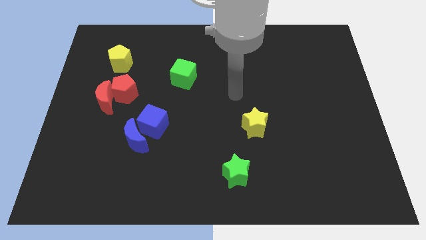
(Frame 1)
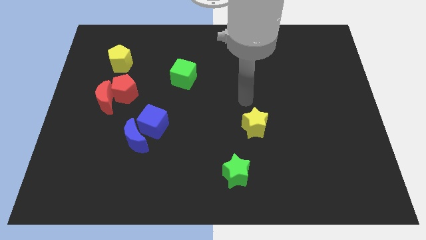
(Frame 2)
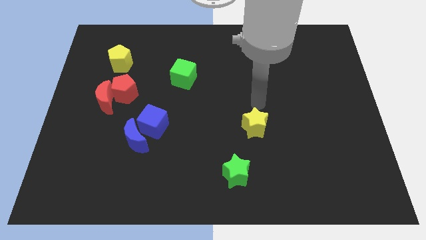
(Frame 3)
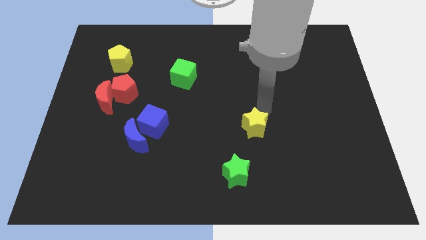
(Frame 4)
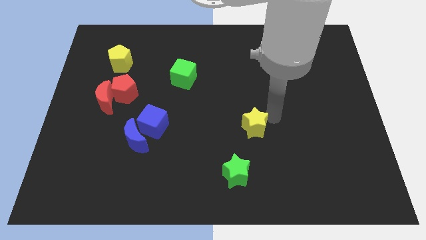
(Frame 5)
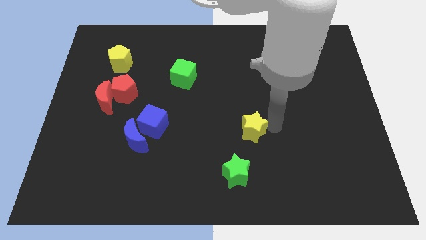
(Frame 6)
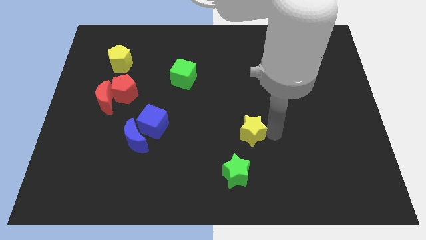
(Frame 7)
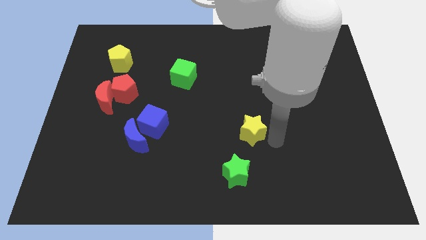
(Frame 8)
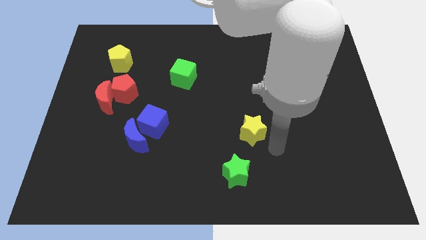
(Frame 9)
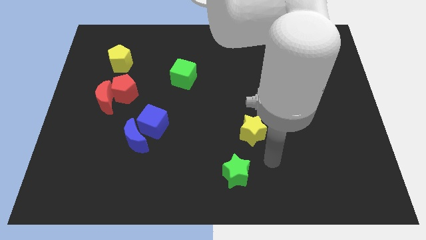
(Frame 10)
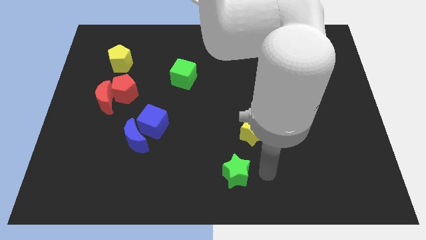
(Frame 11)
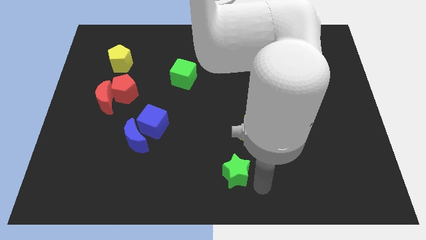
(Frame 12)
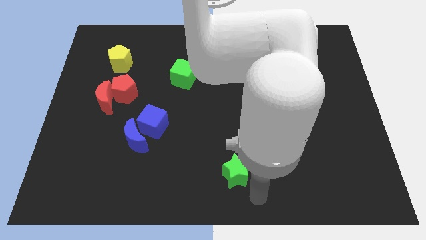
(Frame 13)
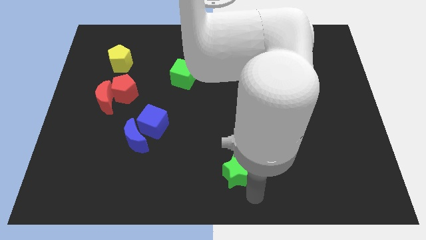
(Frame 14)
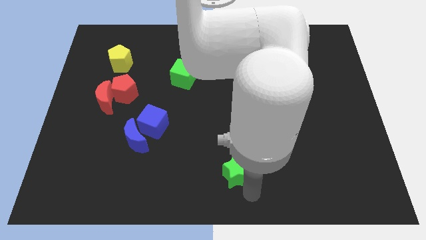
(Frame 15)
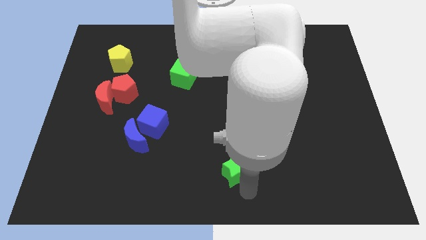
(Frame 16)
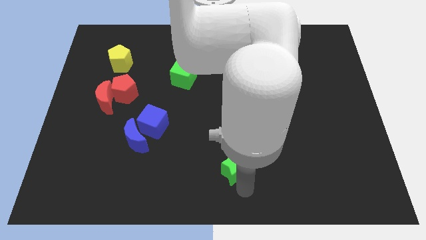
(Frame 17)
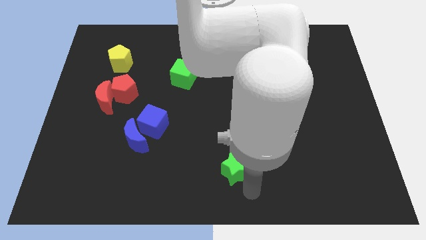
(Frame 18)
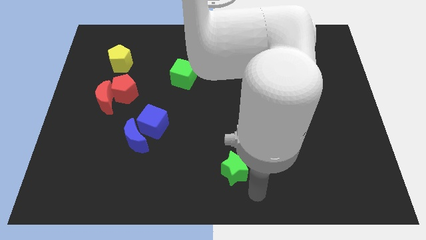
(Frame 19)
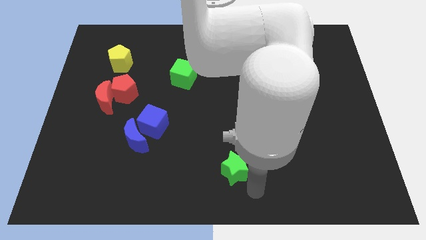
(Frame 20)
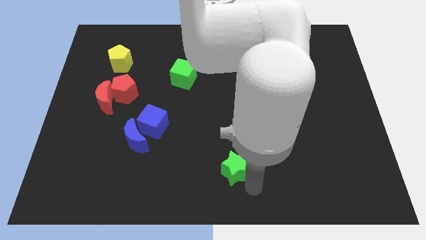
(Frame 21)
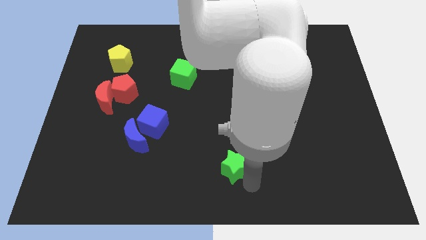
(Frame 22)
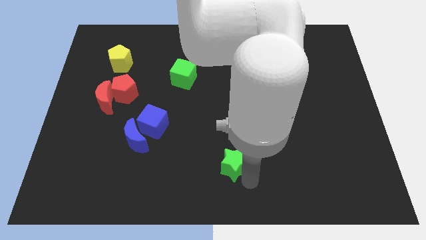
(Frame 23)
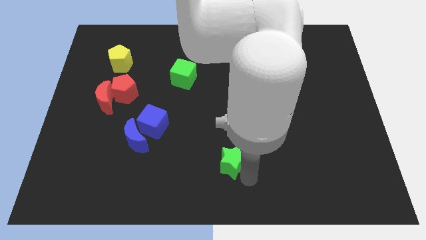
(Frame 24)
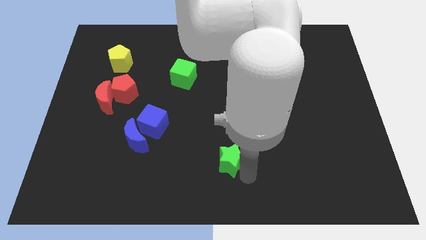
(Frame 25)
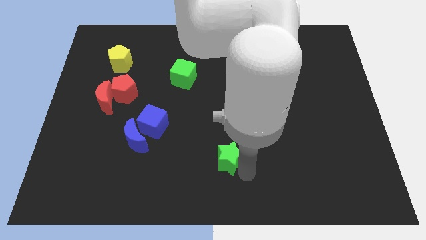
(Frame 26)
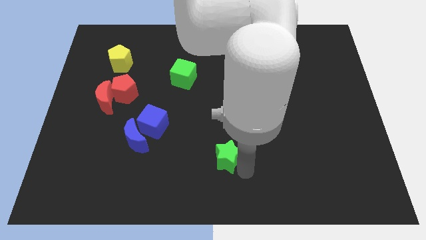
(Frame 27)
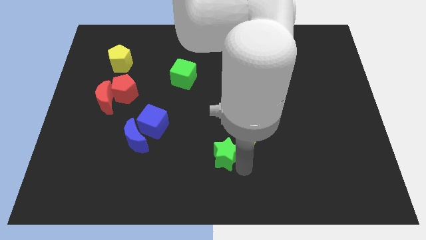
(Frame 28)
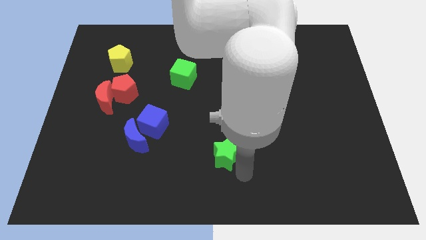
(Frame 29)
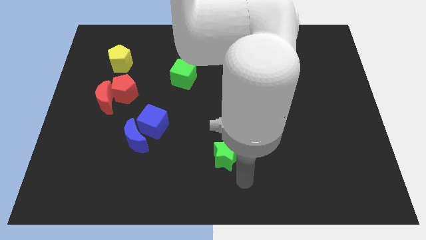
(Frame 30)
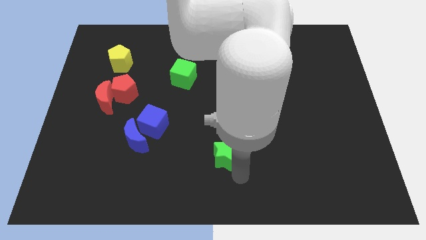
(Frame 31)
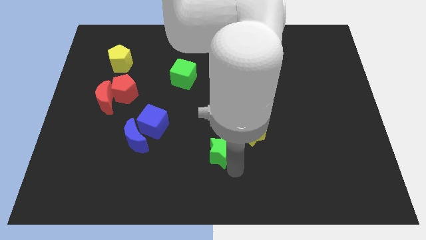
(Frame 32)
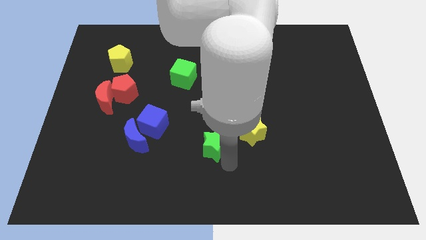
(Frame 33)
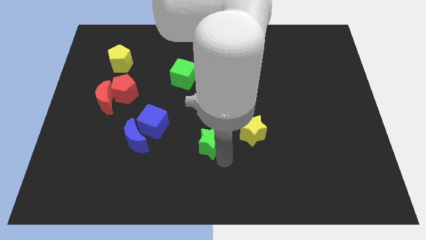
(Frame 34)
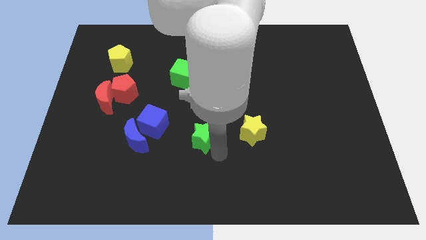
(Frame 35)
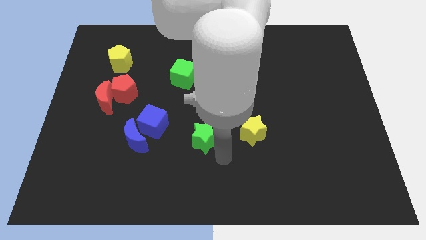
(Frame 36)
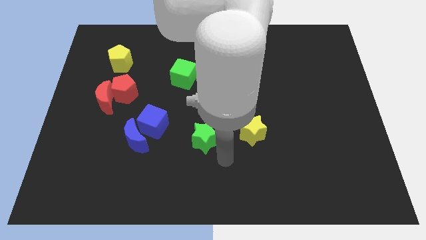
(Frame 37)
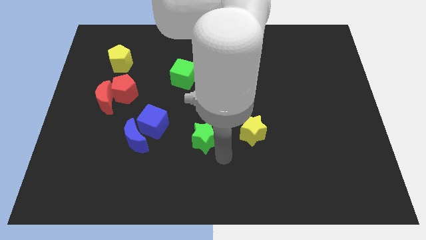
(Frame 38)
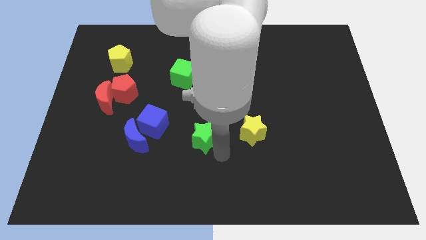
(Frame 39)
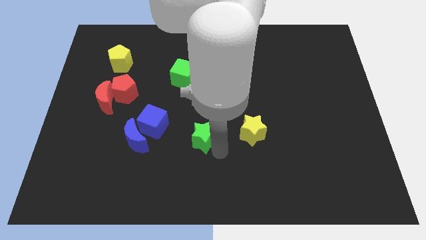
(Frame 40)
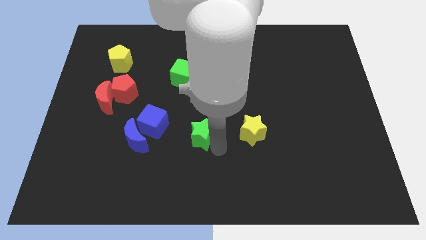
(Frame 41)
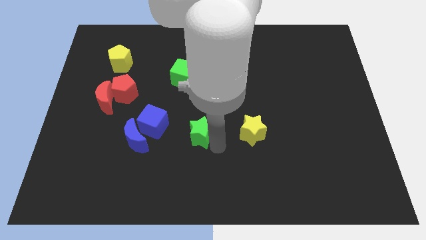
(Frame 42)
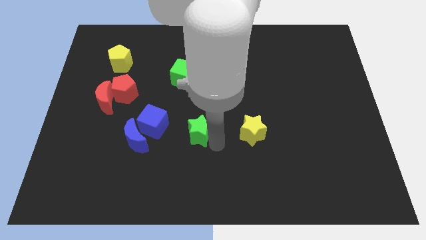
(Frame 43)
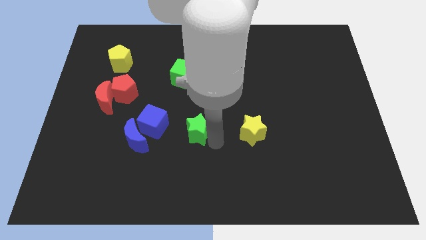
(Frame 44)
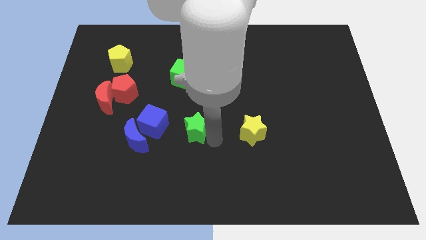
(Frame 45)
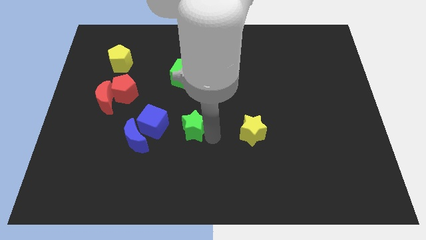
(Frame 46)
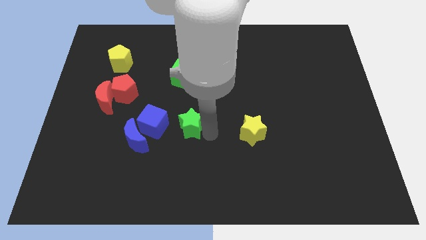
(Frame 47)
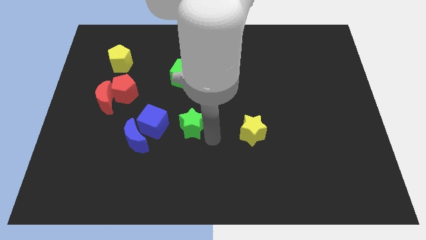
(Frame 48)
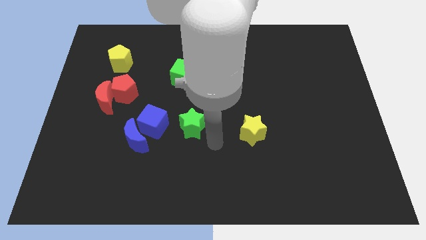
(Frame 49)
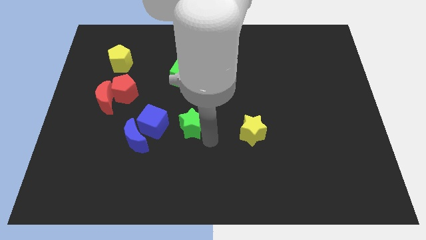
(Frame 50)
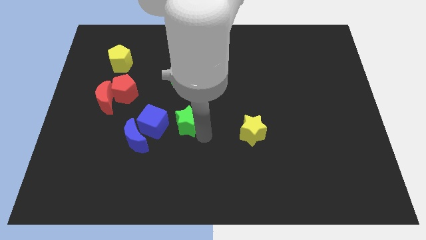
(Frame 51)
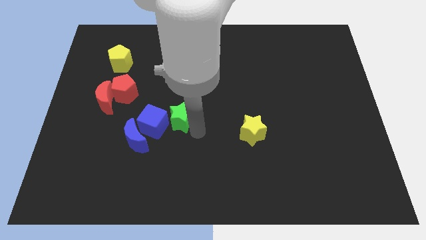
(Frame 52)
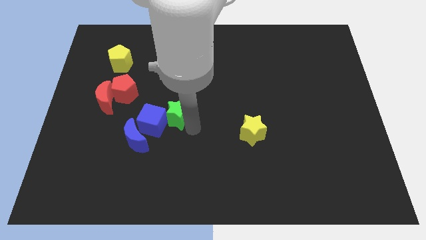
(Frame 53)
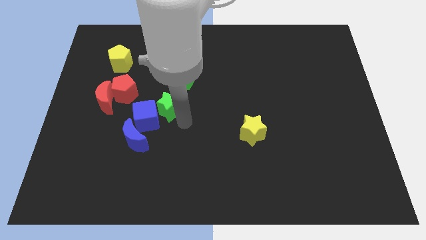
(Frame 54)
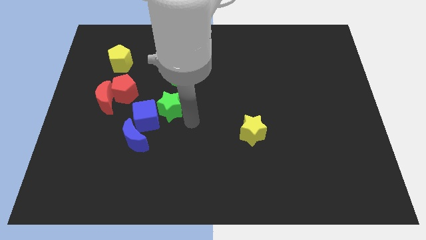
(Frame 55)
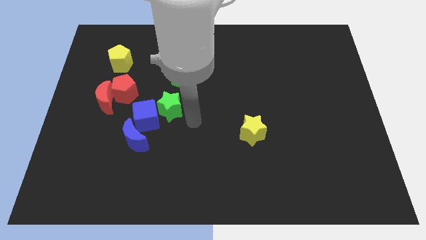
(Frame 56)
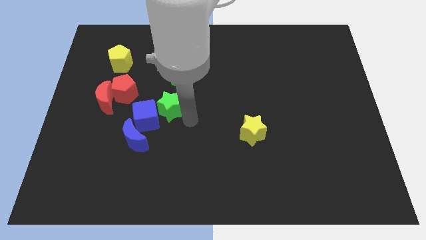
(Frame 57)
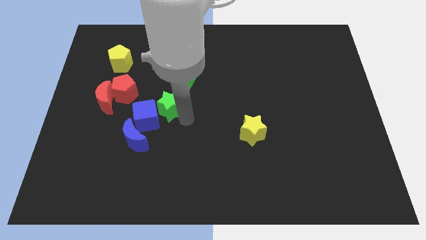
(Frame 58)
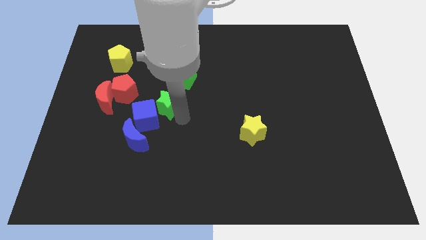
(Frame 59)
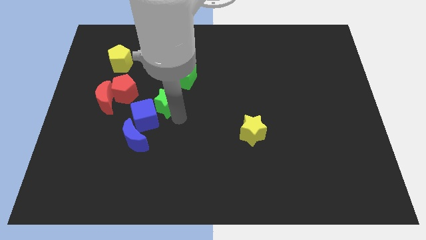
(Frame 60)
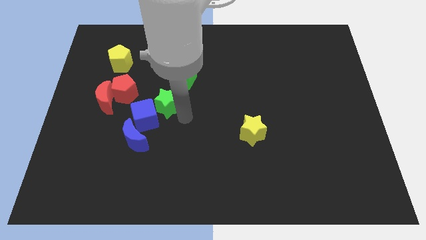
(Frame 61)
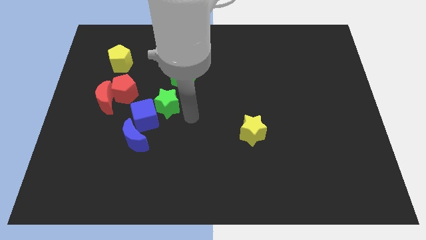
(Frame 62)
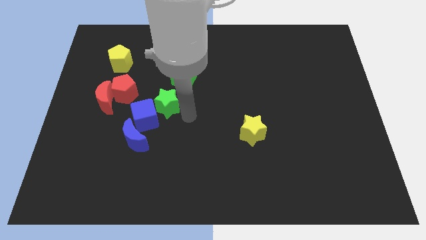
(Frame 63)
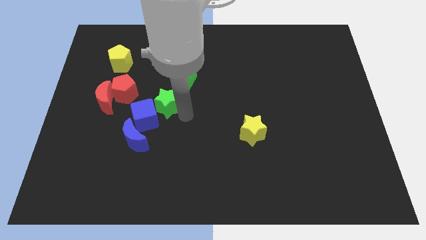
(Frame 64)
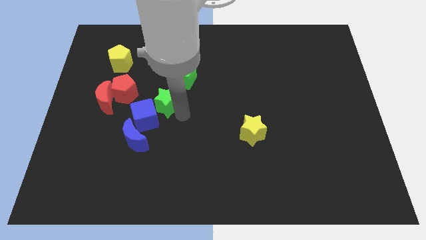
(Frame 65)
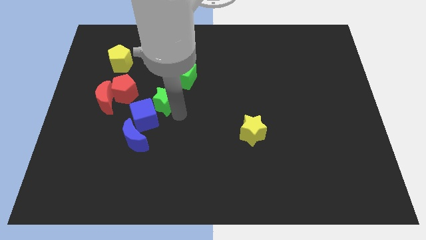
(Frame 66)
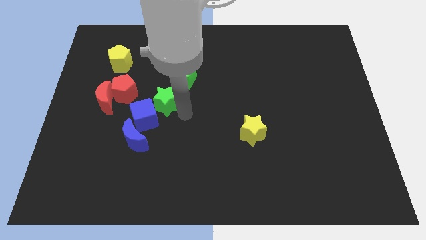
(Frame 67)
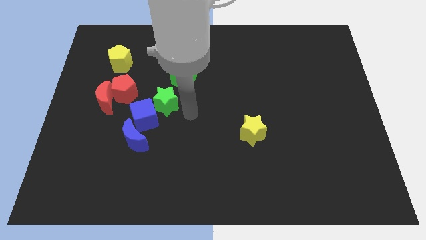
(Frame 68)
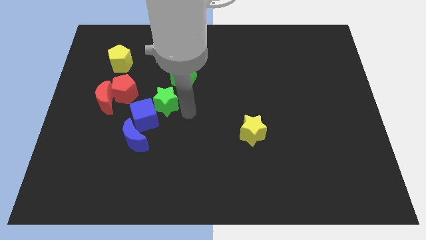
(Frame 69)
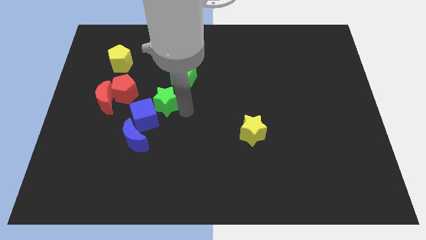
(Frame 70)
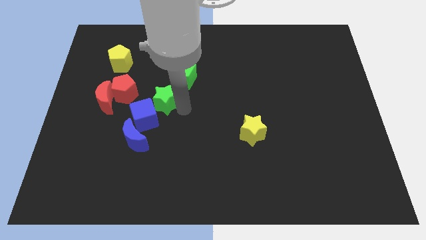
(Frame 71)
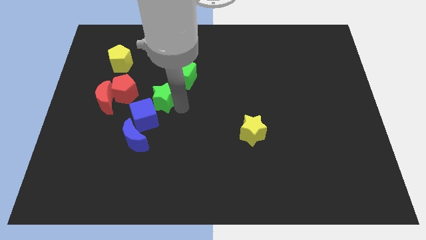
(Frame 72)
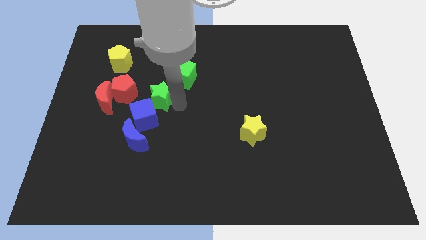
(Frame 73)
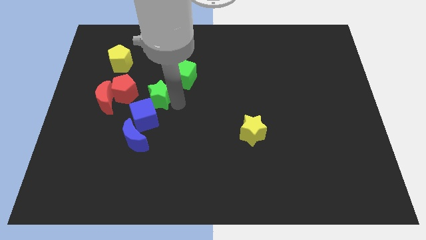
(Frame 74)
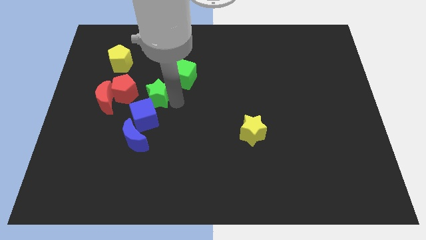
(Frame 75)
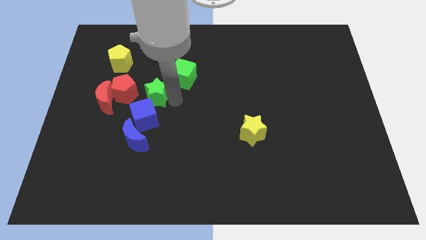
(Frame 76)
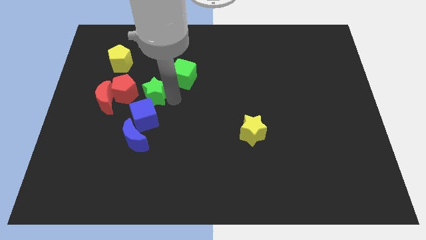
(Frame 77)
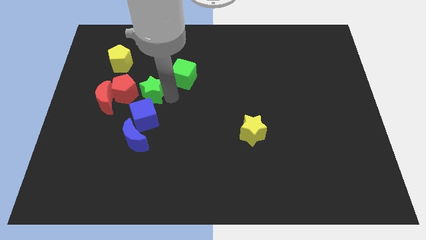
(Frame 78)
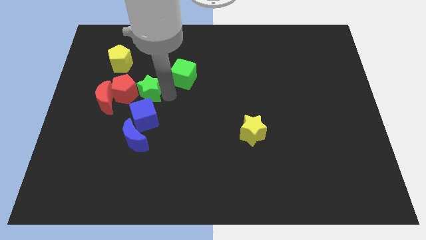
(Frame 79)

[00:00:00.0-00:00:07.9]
put the green star close to the red pentagon
